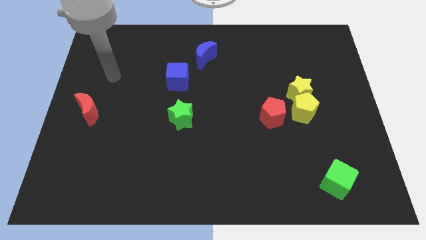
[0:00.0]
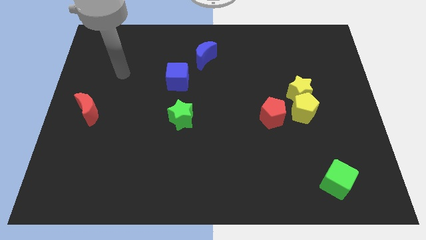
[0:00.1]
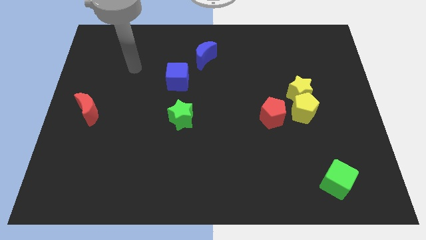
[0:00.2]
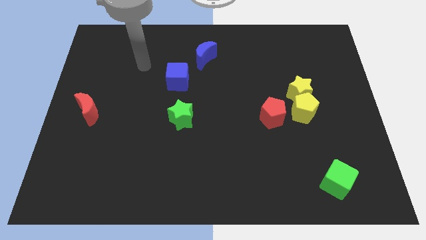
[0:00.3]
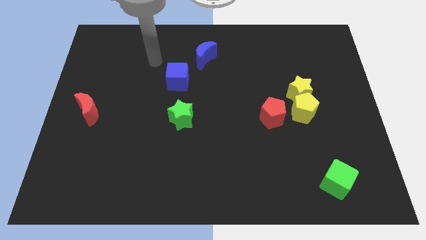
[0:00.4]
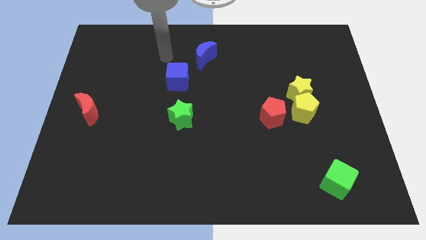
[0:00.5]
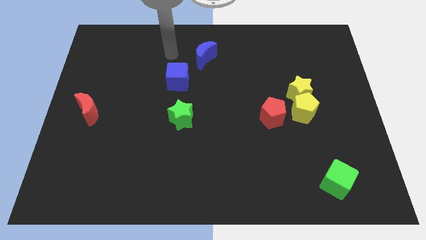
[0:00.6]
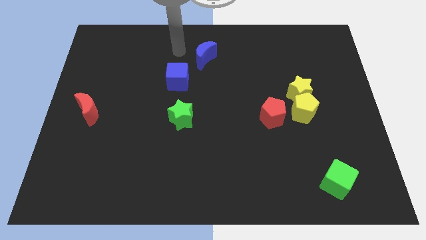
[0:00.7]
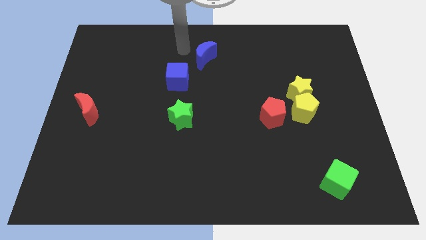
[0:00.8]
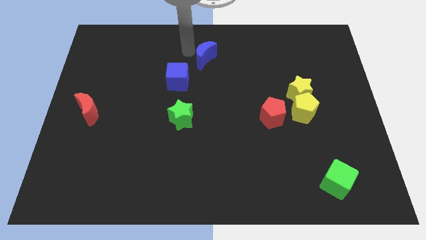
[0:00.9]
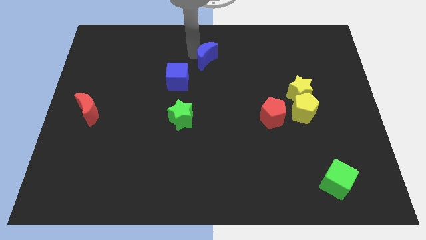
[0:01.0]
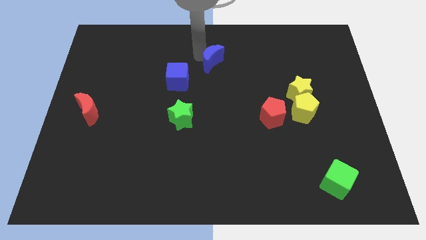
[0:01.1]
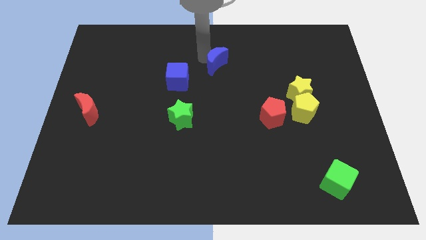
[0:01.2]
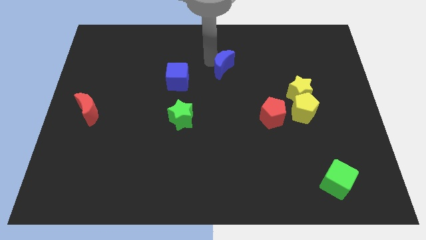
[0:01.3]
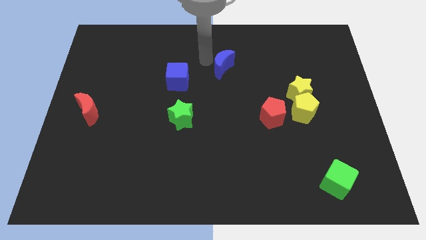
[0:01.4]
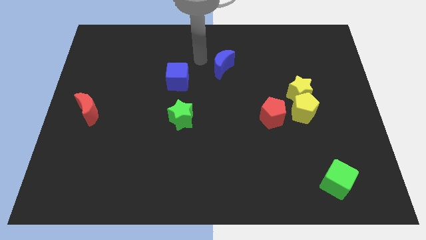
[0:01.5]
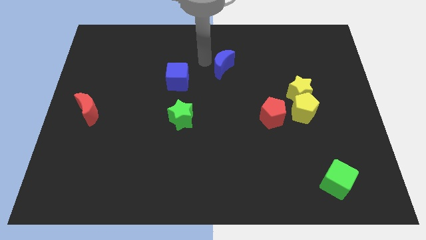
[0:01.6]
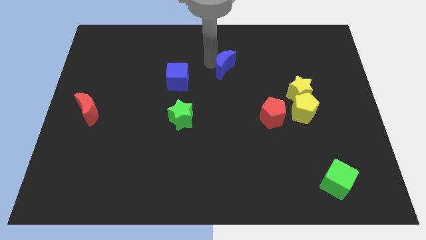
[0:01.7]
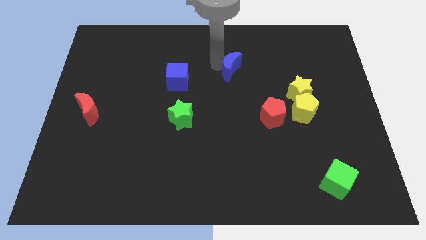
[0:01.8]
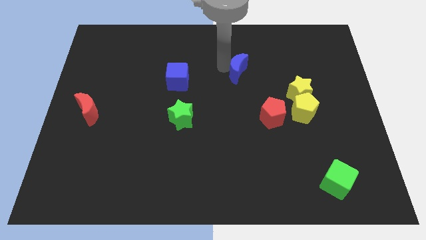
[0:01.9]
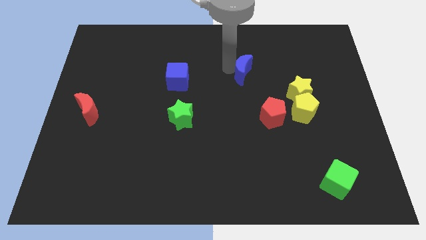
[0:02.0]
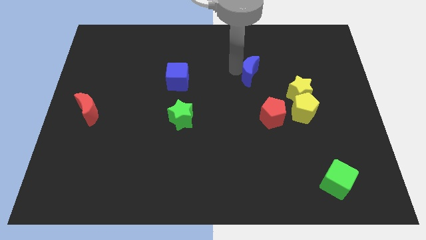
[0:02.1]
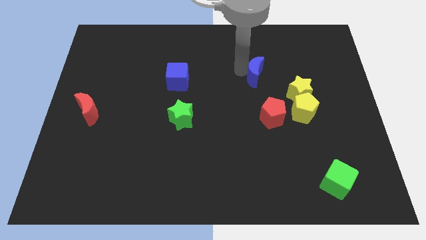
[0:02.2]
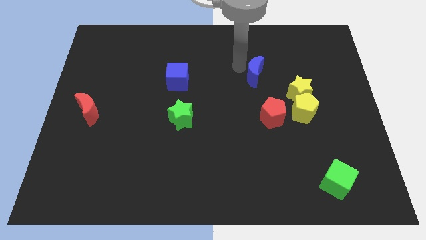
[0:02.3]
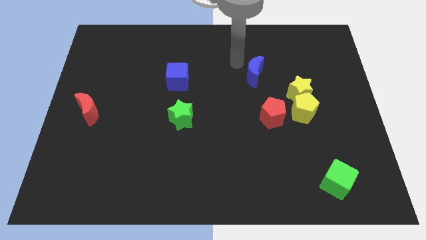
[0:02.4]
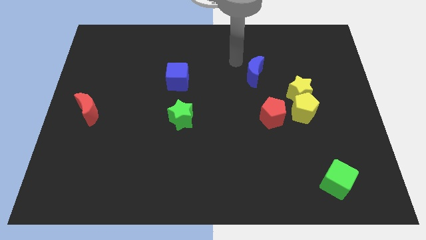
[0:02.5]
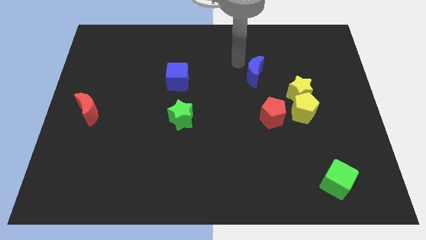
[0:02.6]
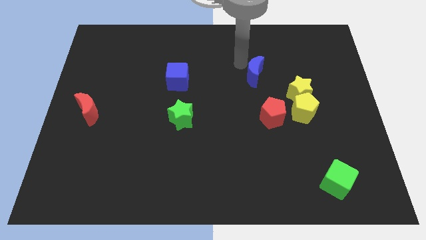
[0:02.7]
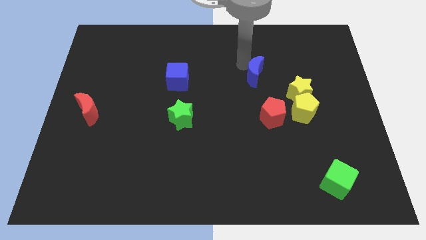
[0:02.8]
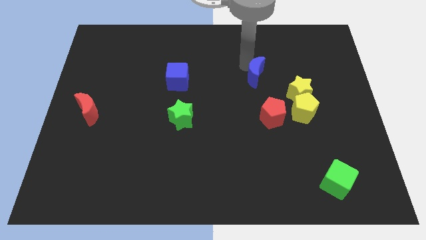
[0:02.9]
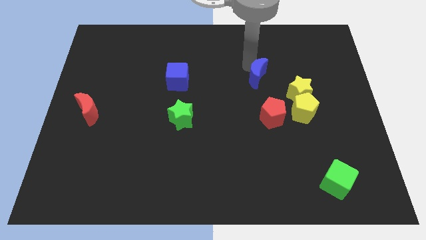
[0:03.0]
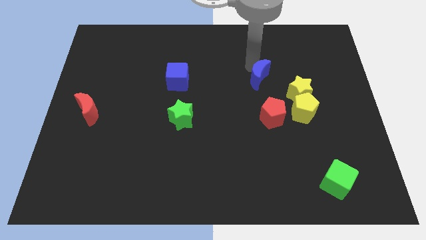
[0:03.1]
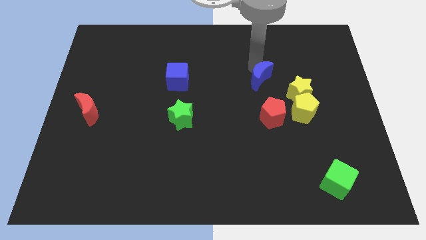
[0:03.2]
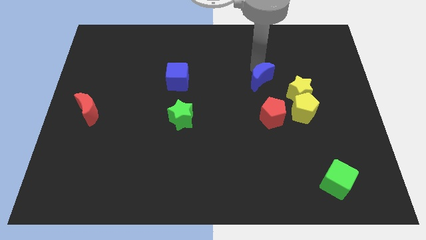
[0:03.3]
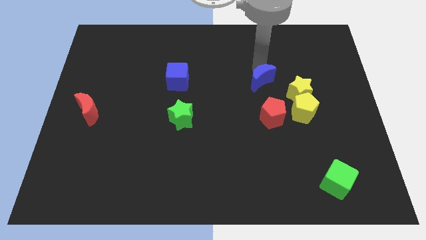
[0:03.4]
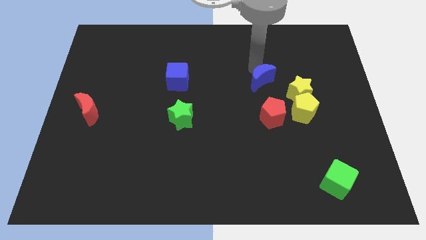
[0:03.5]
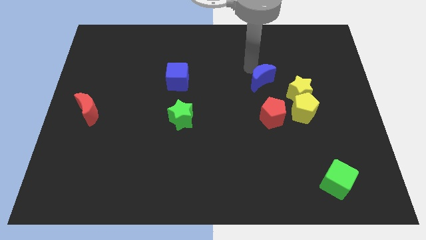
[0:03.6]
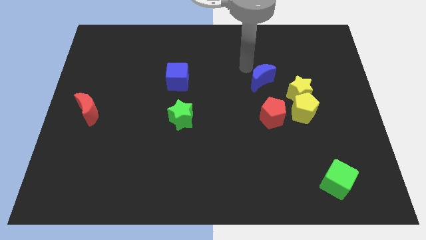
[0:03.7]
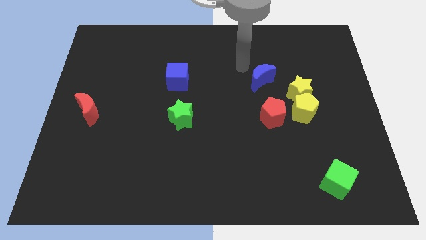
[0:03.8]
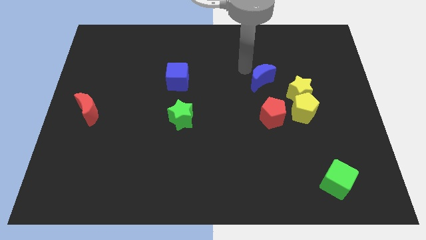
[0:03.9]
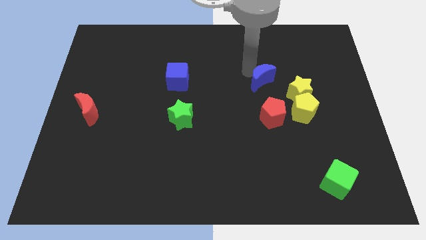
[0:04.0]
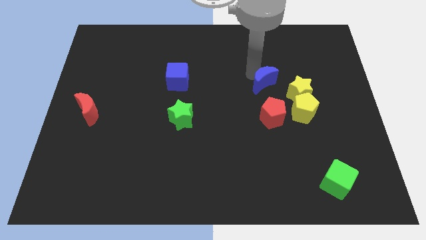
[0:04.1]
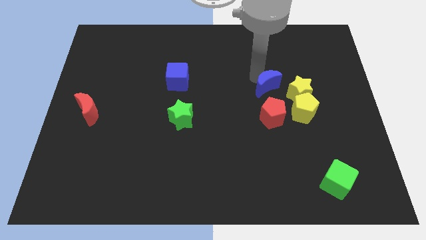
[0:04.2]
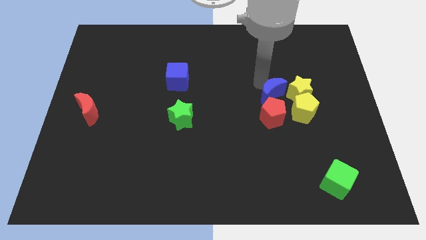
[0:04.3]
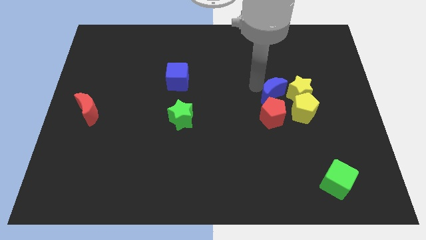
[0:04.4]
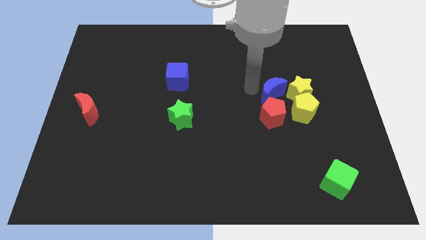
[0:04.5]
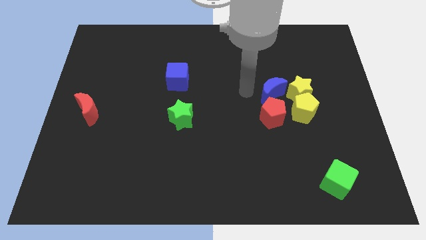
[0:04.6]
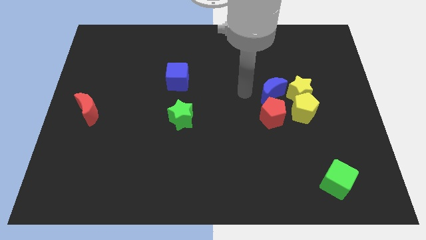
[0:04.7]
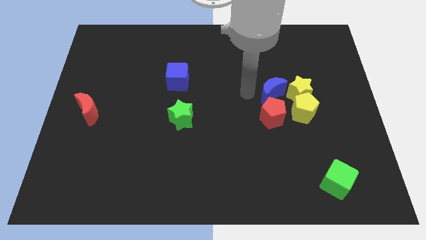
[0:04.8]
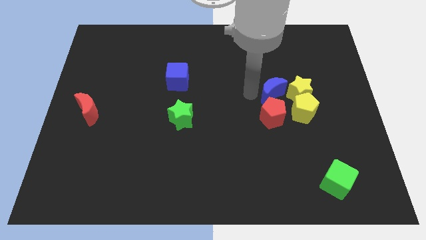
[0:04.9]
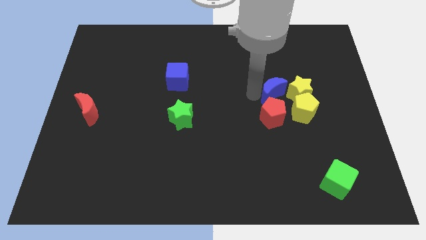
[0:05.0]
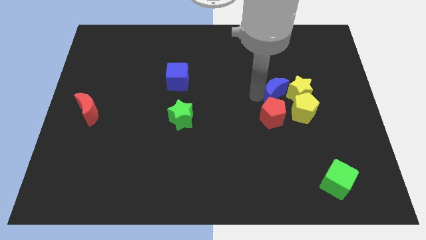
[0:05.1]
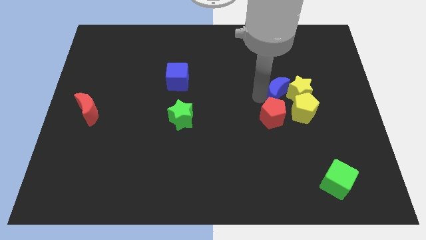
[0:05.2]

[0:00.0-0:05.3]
put the blue moon to the yellow star

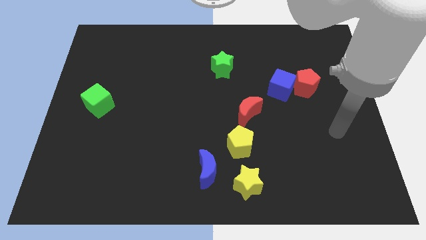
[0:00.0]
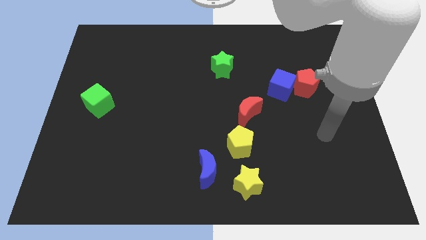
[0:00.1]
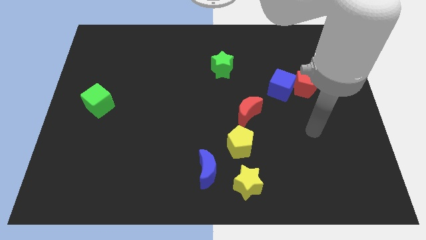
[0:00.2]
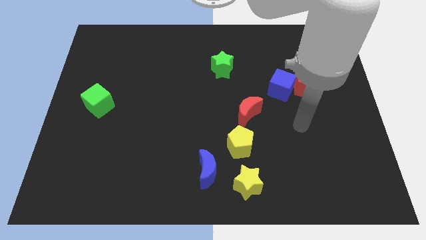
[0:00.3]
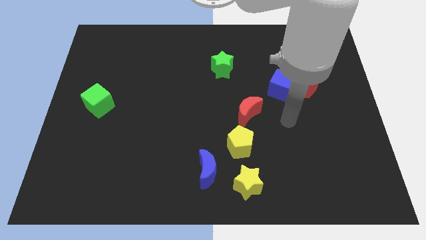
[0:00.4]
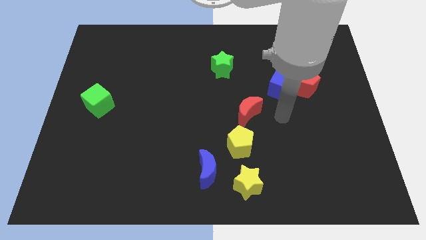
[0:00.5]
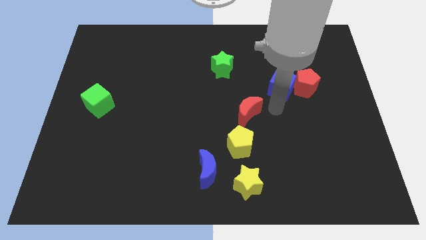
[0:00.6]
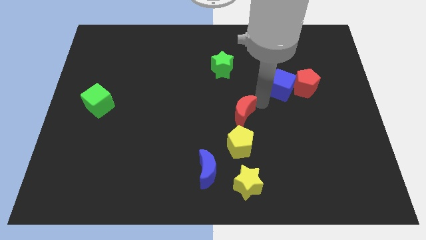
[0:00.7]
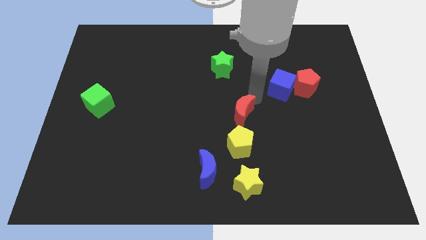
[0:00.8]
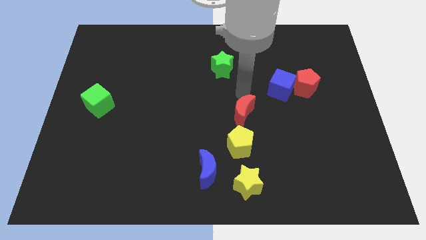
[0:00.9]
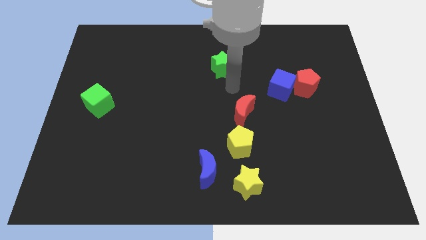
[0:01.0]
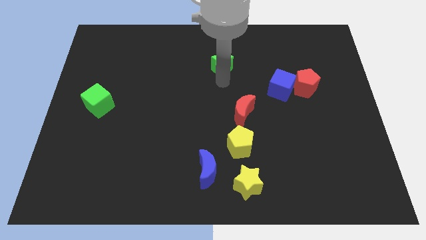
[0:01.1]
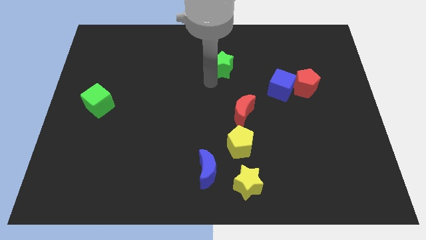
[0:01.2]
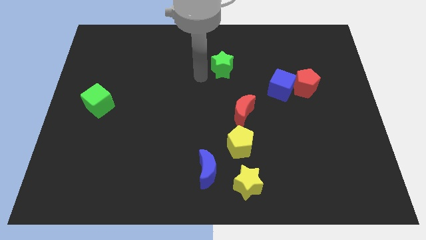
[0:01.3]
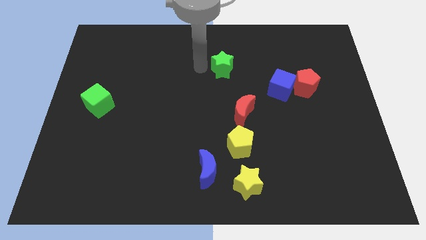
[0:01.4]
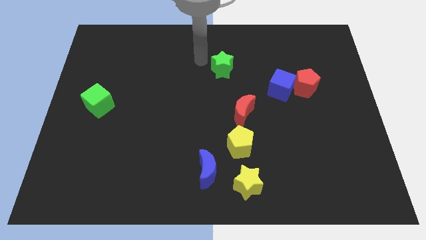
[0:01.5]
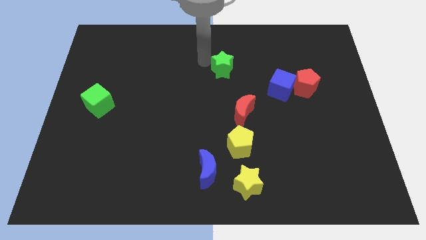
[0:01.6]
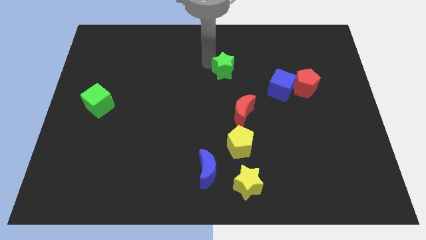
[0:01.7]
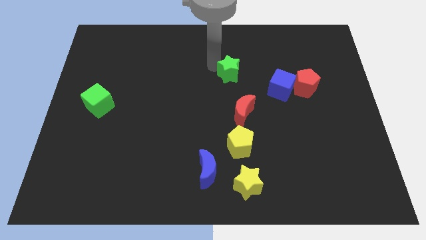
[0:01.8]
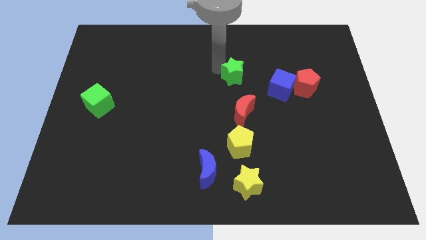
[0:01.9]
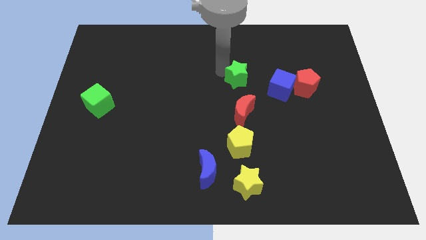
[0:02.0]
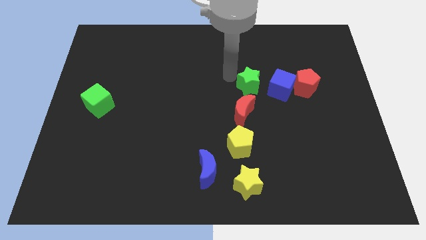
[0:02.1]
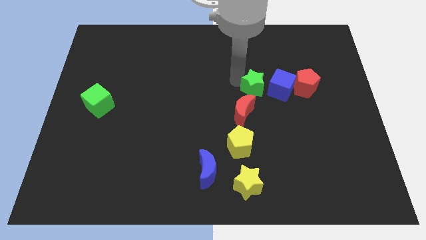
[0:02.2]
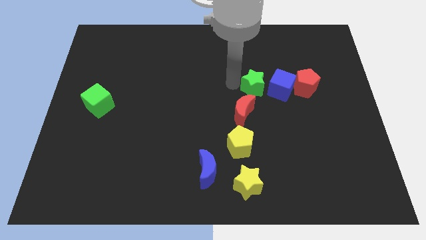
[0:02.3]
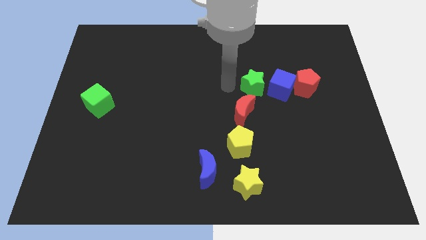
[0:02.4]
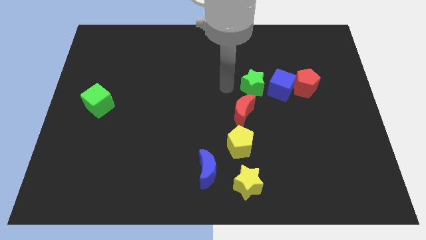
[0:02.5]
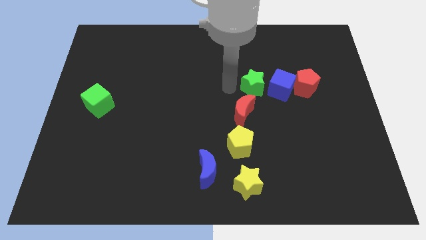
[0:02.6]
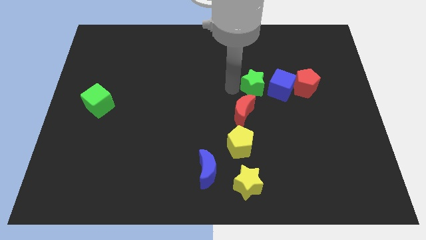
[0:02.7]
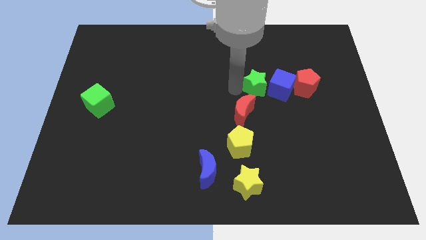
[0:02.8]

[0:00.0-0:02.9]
slide the green star close to the blue cube

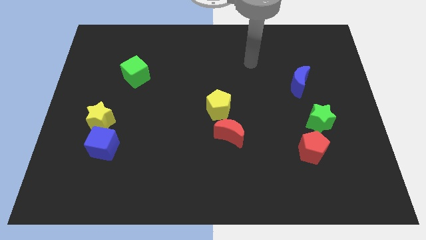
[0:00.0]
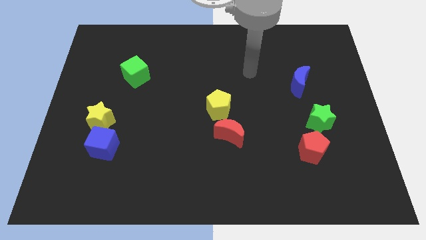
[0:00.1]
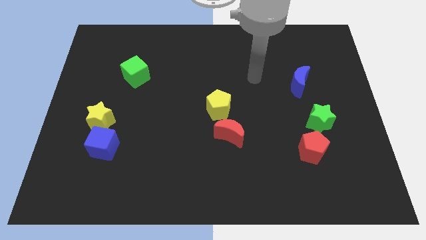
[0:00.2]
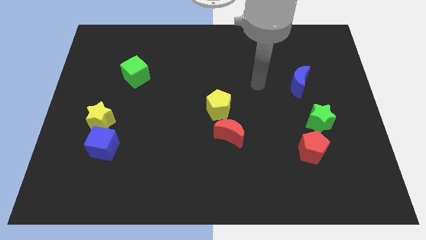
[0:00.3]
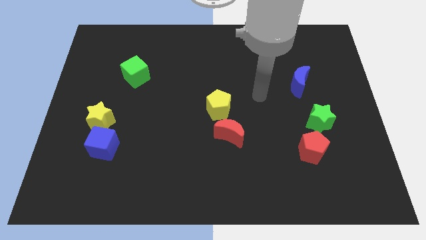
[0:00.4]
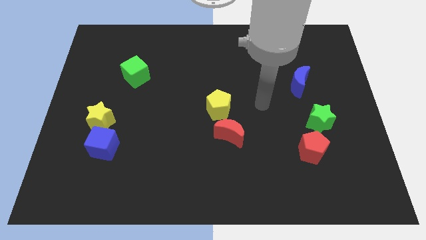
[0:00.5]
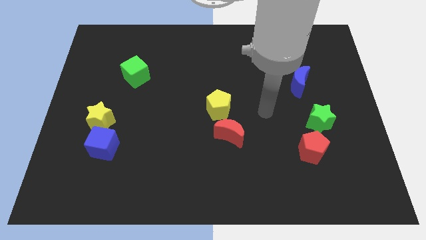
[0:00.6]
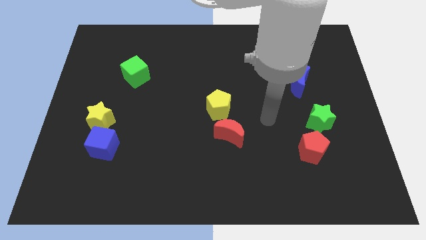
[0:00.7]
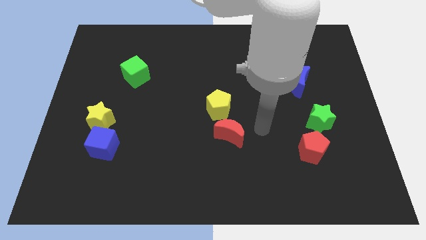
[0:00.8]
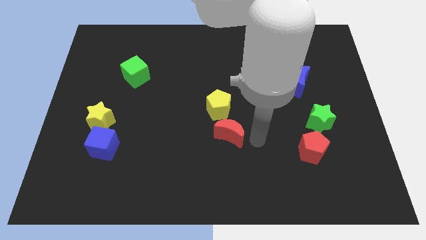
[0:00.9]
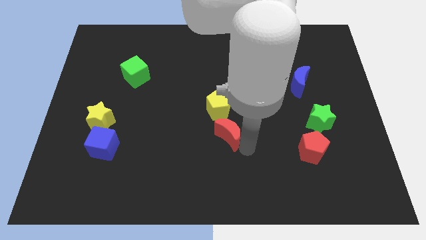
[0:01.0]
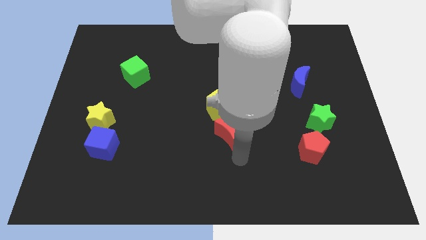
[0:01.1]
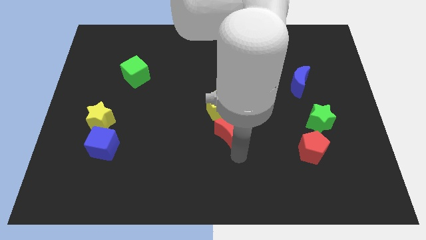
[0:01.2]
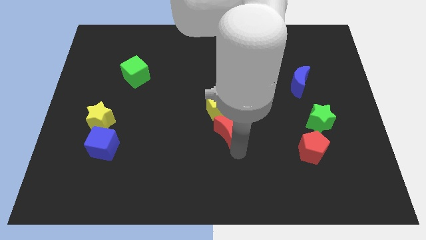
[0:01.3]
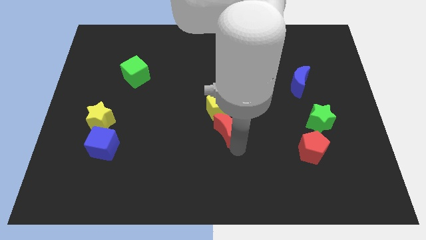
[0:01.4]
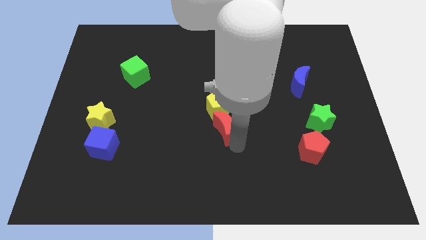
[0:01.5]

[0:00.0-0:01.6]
push the red moon towards the yellow pentagon
